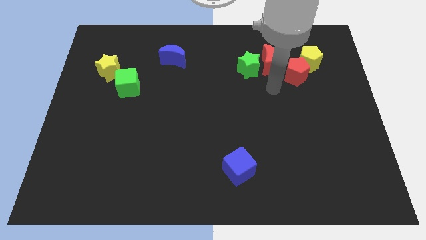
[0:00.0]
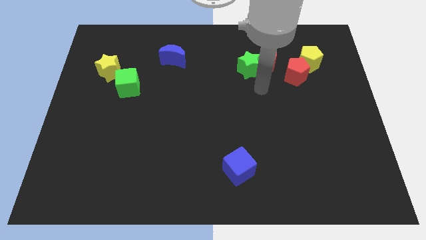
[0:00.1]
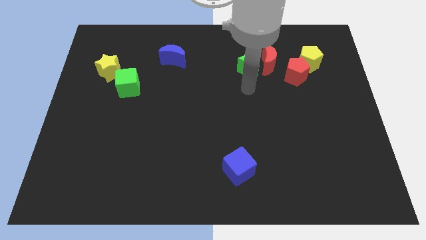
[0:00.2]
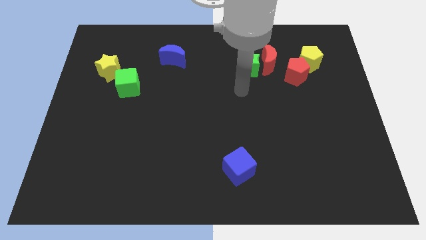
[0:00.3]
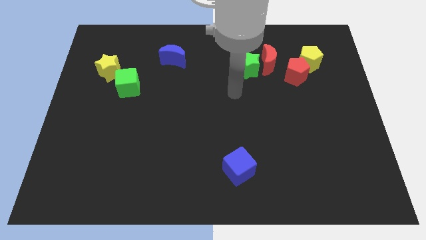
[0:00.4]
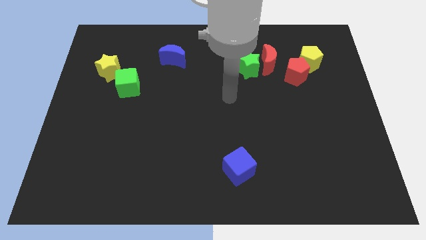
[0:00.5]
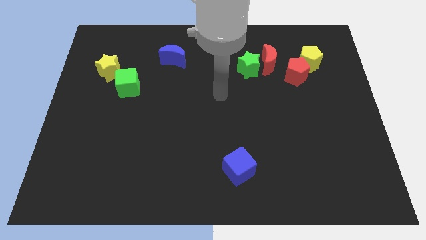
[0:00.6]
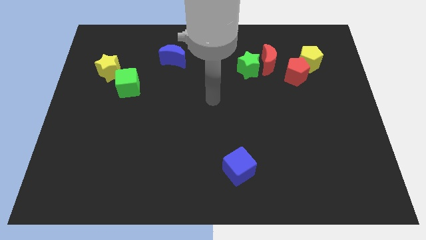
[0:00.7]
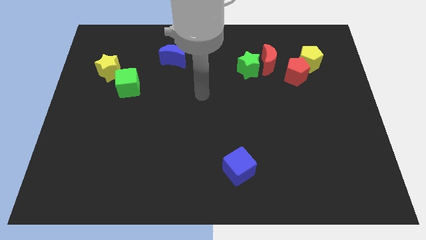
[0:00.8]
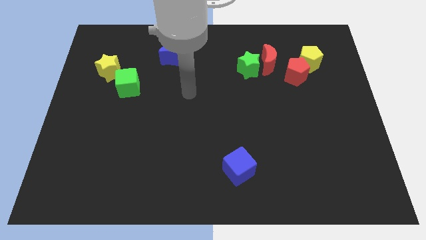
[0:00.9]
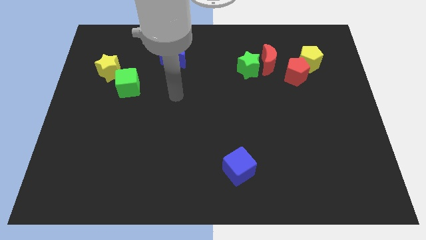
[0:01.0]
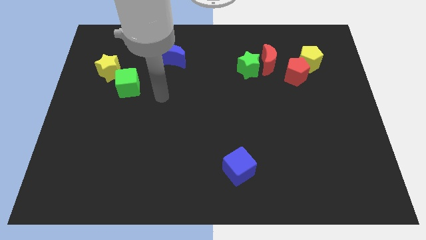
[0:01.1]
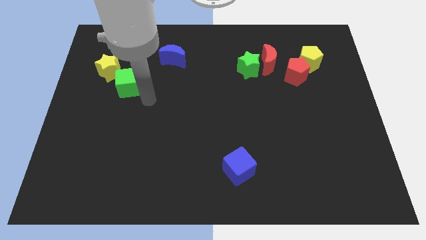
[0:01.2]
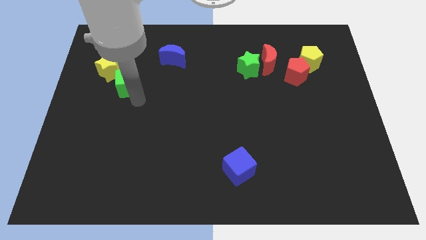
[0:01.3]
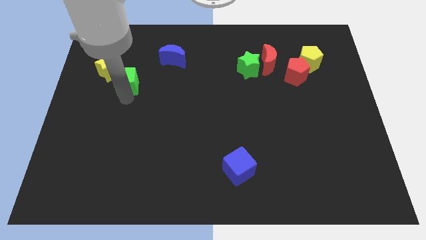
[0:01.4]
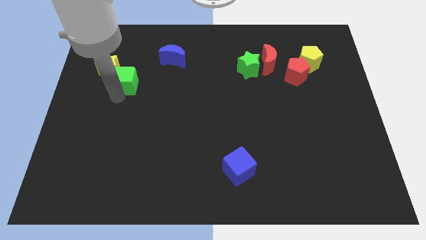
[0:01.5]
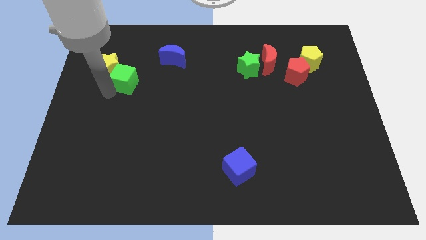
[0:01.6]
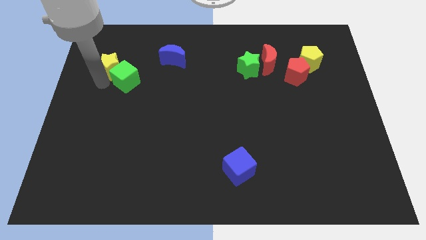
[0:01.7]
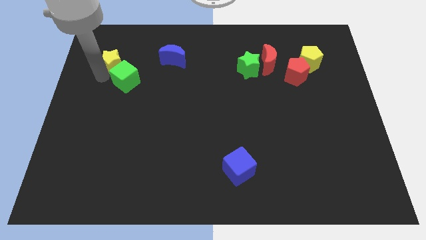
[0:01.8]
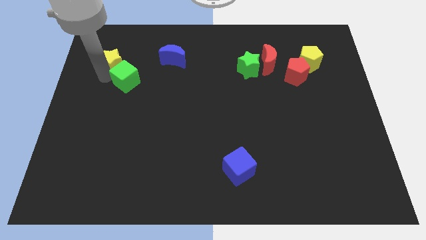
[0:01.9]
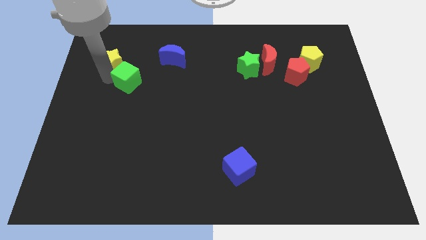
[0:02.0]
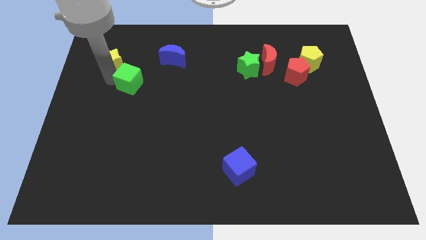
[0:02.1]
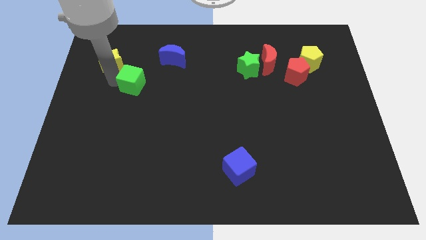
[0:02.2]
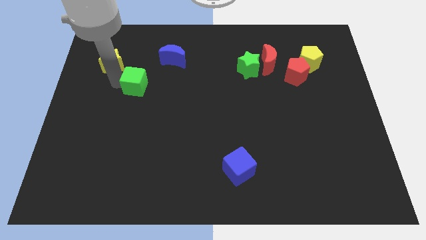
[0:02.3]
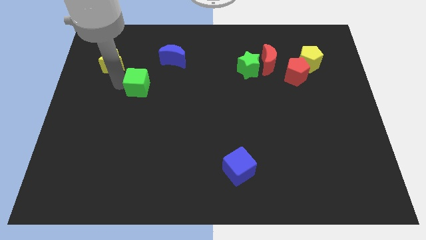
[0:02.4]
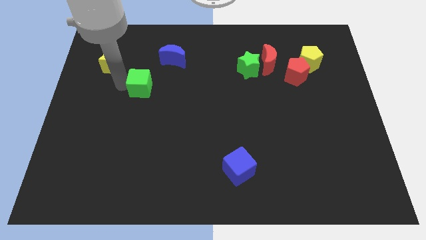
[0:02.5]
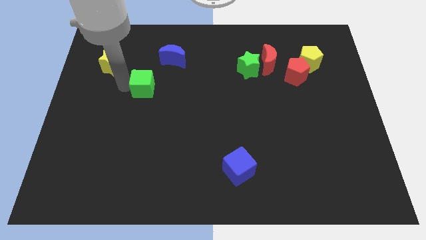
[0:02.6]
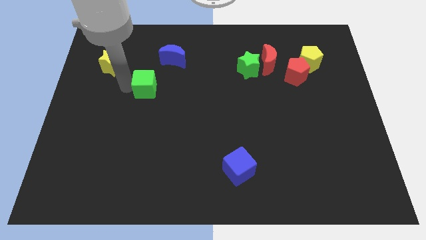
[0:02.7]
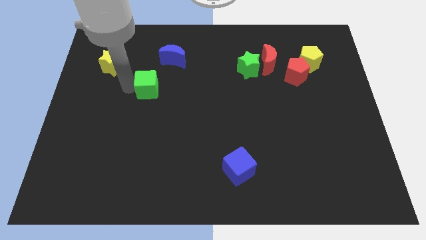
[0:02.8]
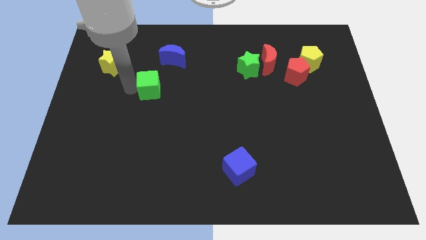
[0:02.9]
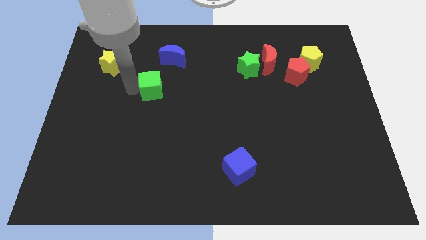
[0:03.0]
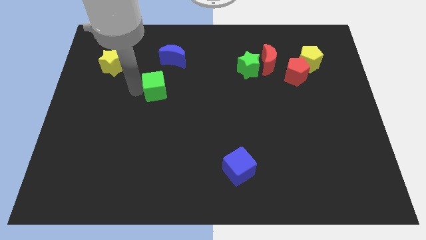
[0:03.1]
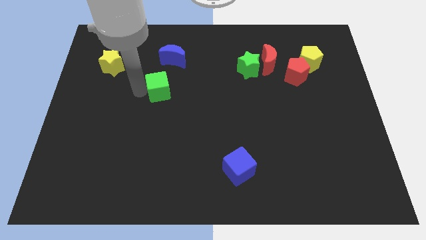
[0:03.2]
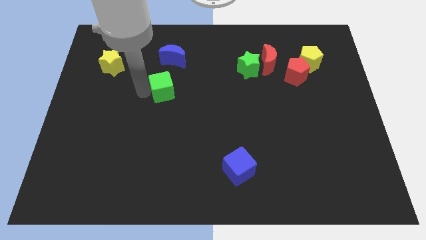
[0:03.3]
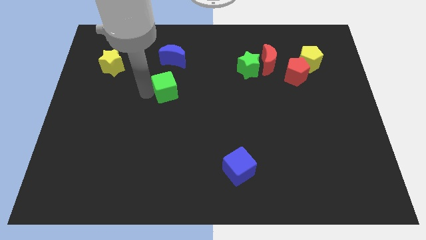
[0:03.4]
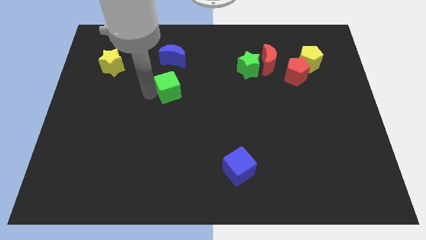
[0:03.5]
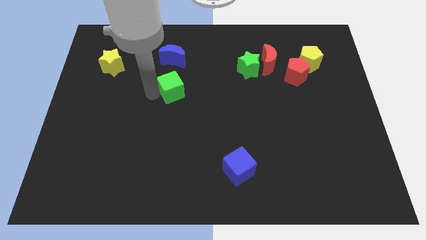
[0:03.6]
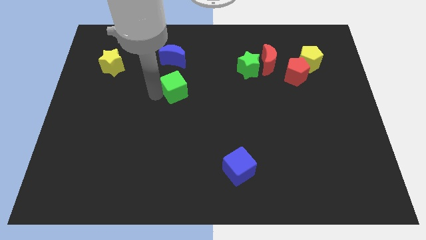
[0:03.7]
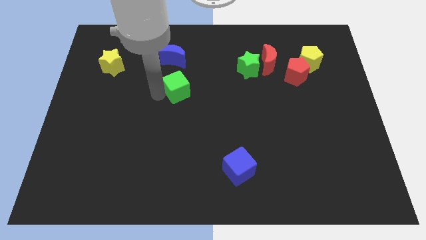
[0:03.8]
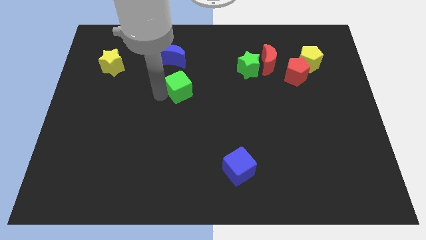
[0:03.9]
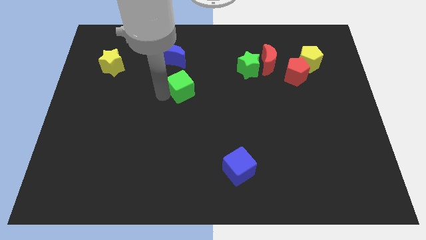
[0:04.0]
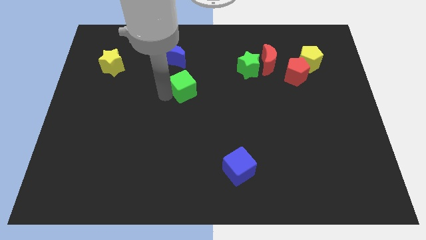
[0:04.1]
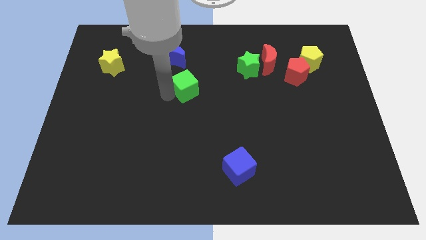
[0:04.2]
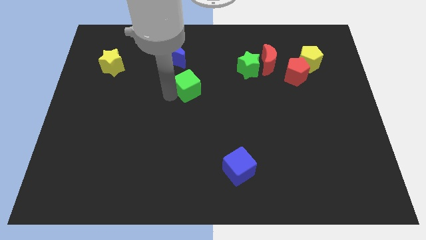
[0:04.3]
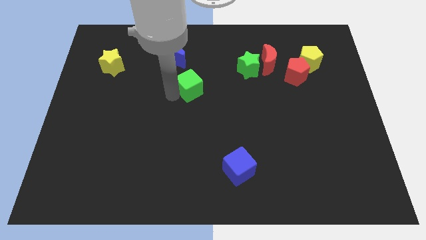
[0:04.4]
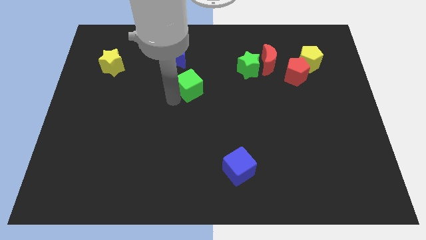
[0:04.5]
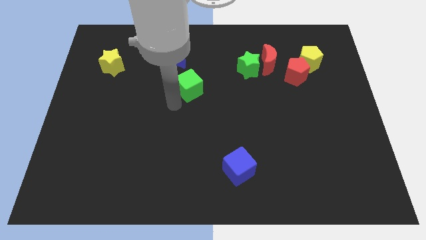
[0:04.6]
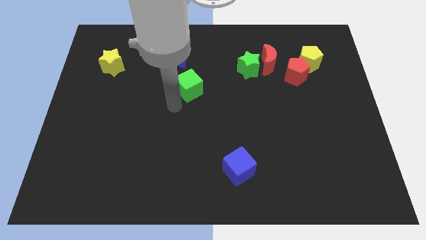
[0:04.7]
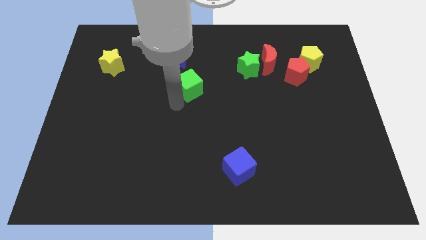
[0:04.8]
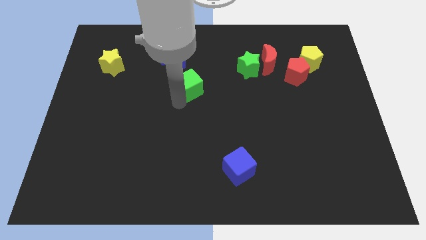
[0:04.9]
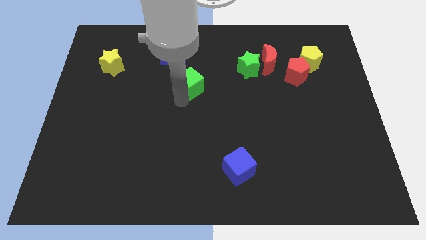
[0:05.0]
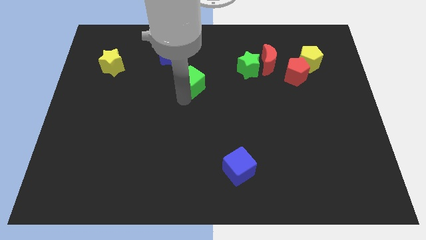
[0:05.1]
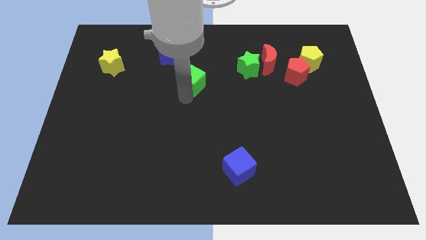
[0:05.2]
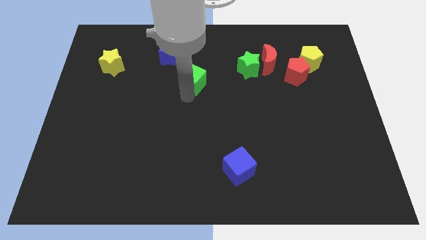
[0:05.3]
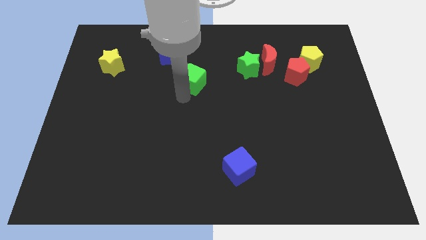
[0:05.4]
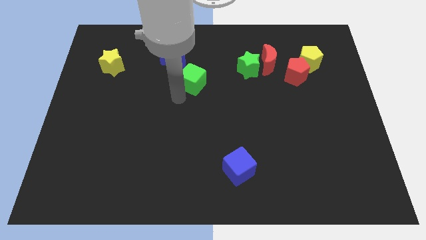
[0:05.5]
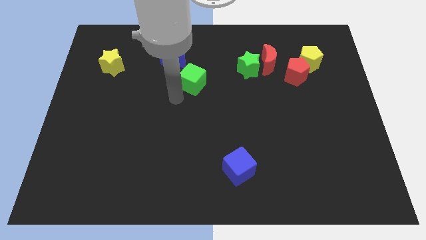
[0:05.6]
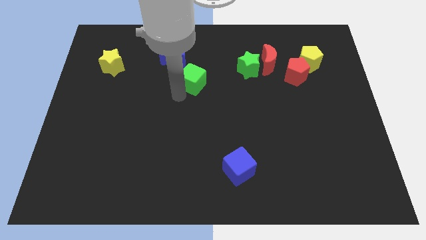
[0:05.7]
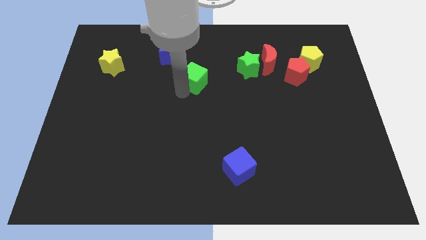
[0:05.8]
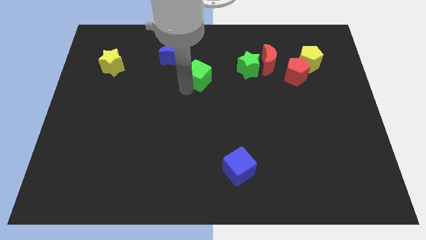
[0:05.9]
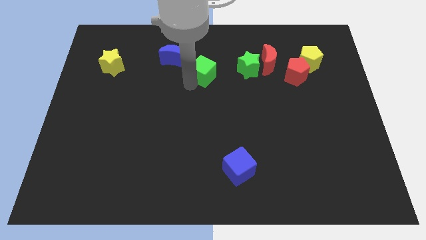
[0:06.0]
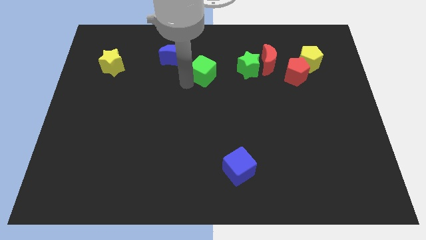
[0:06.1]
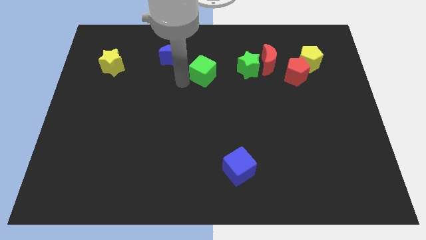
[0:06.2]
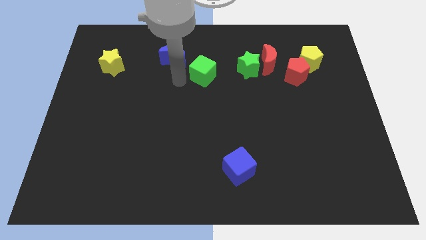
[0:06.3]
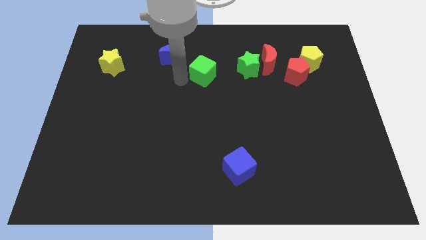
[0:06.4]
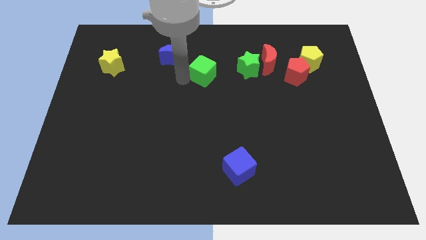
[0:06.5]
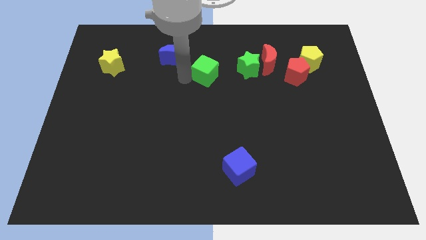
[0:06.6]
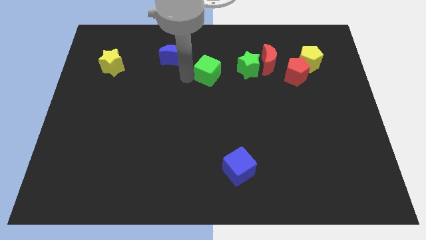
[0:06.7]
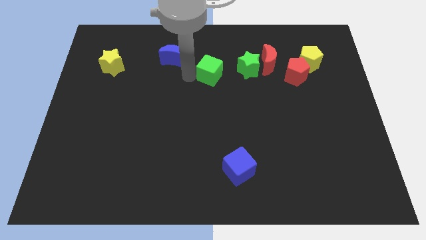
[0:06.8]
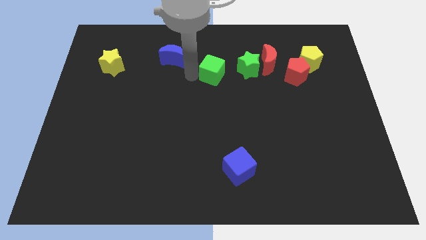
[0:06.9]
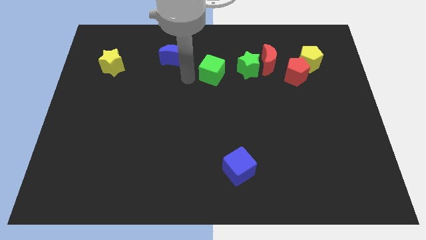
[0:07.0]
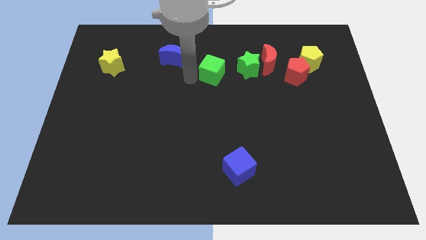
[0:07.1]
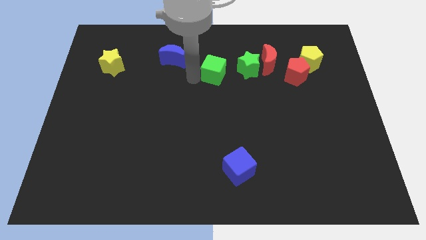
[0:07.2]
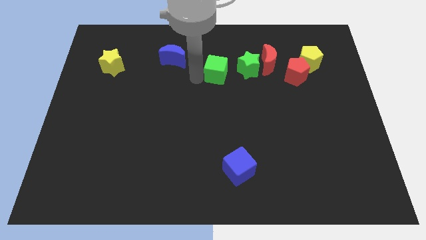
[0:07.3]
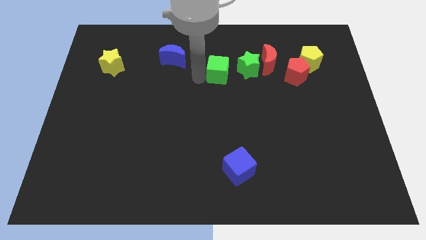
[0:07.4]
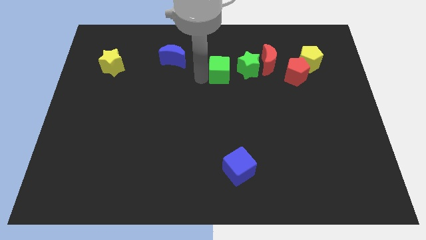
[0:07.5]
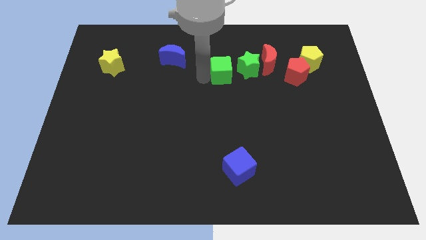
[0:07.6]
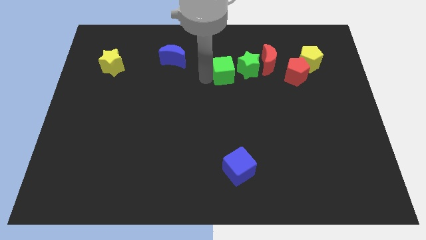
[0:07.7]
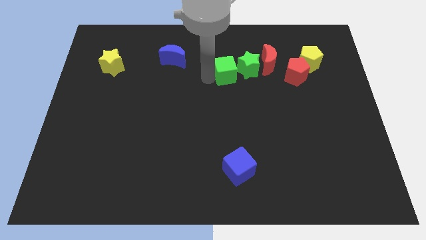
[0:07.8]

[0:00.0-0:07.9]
put the green cube to the green star
